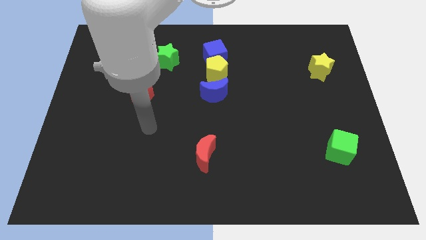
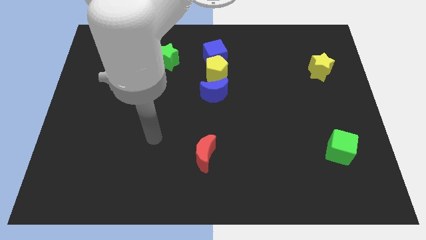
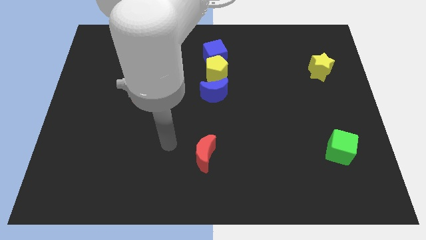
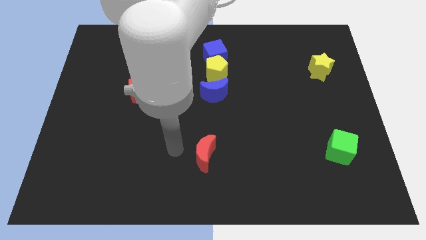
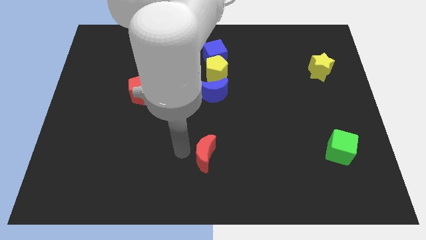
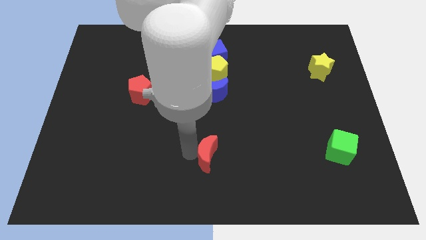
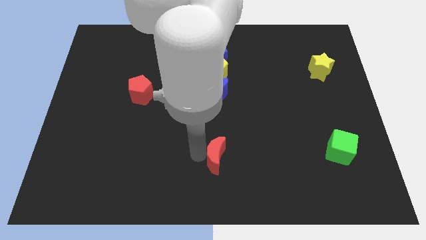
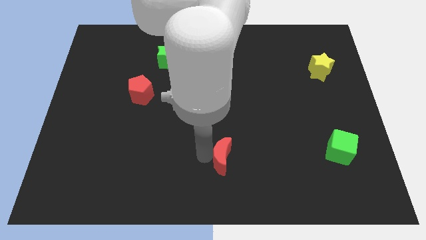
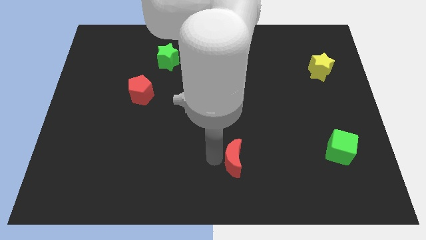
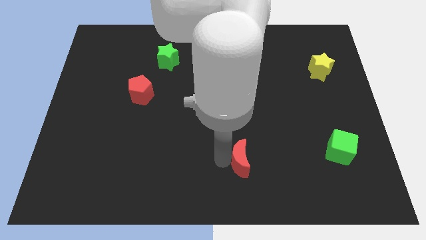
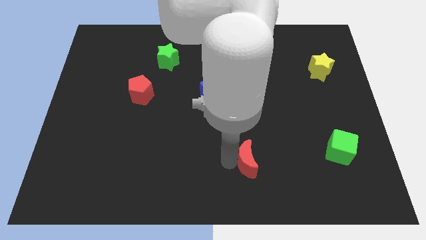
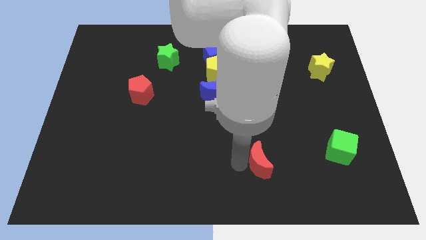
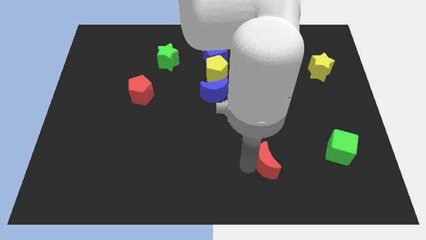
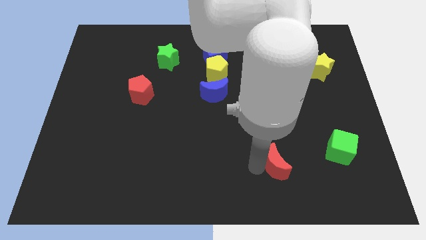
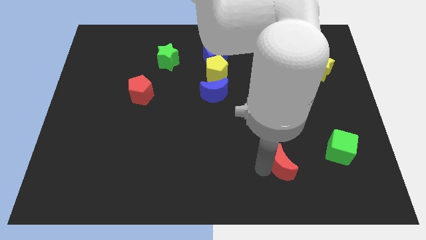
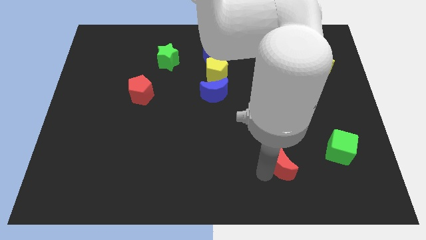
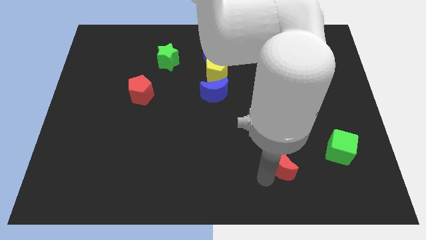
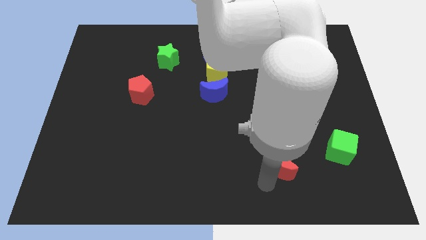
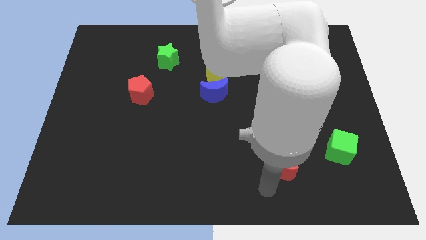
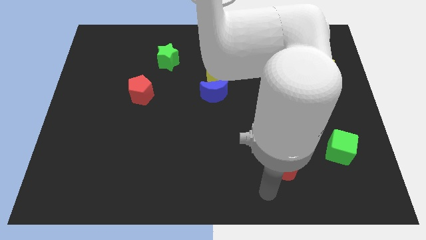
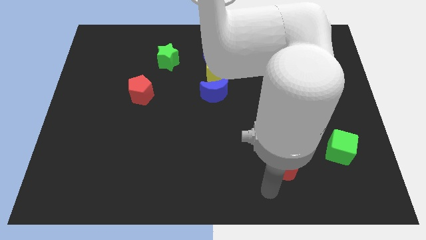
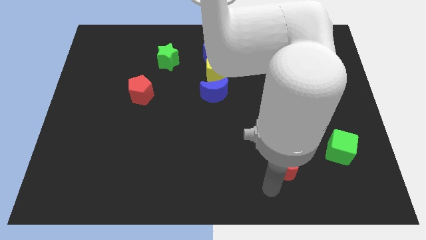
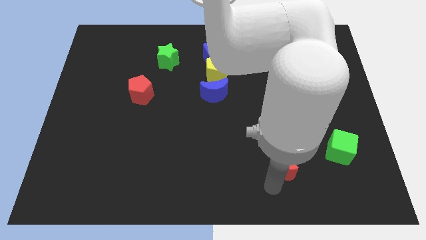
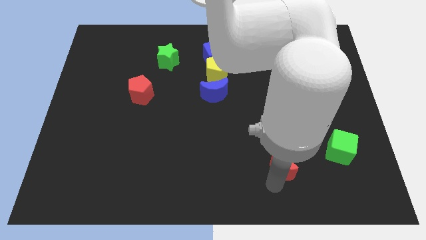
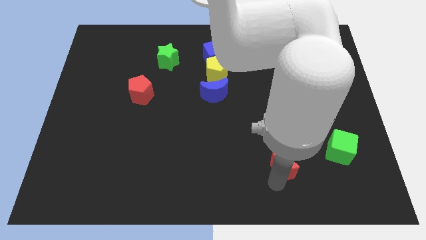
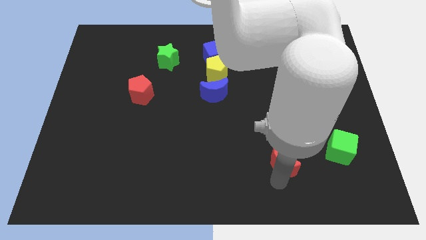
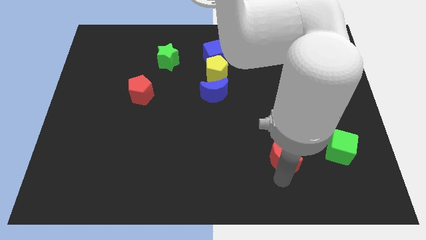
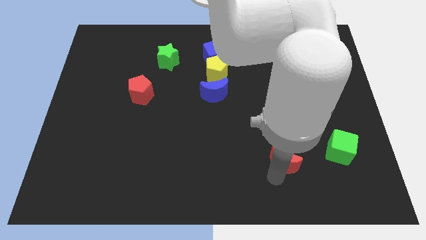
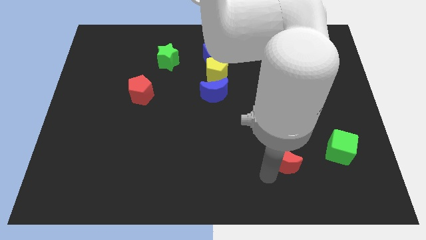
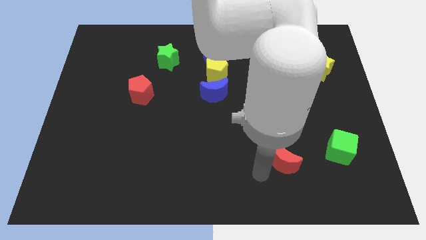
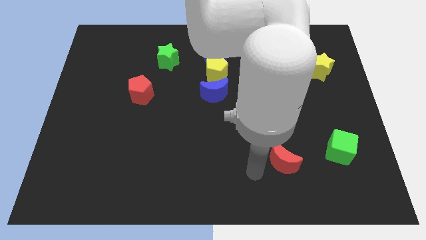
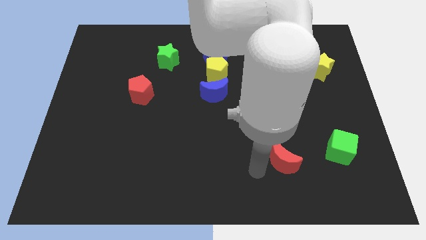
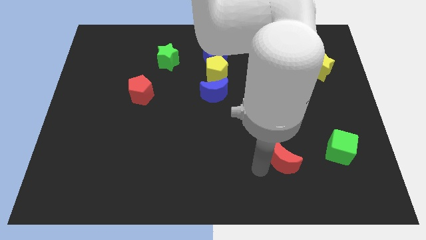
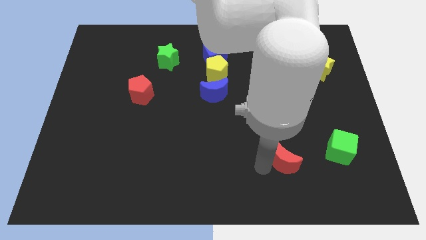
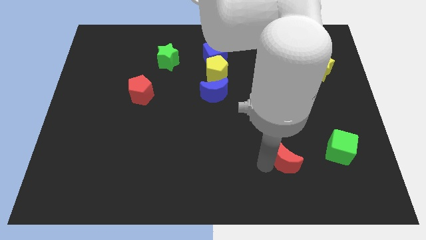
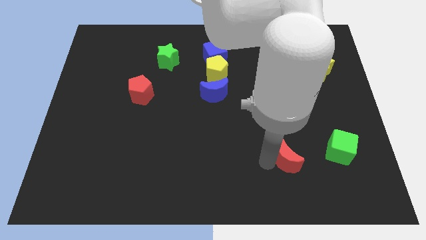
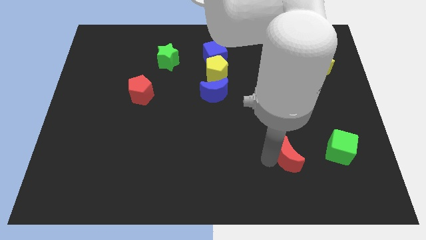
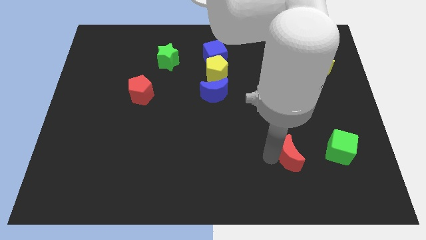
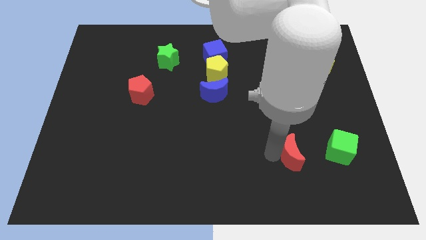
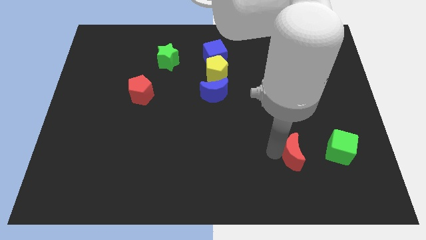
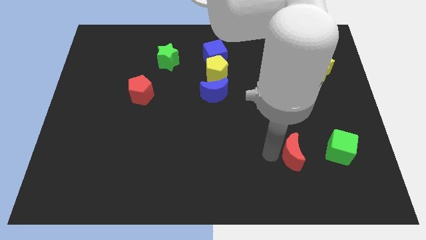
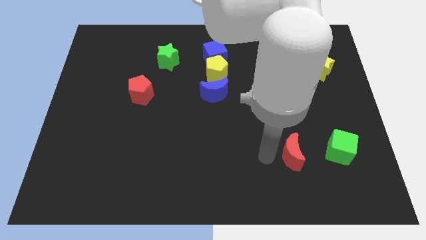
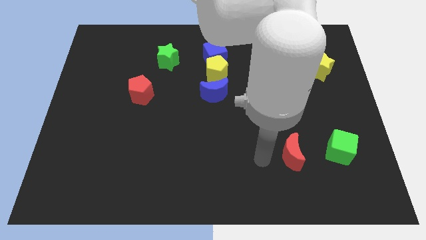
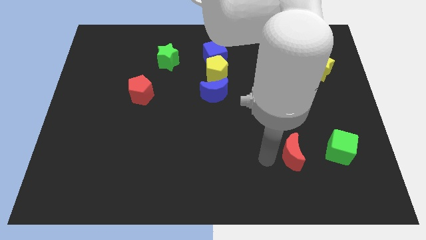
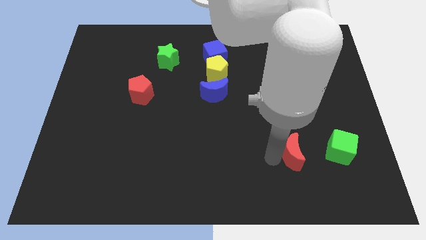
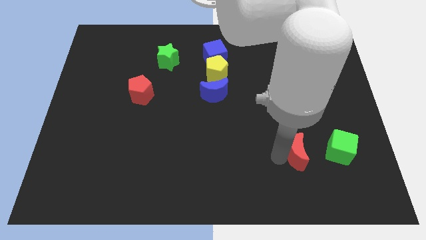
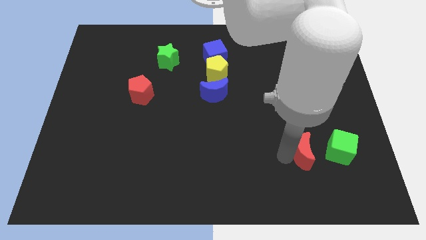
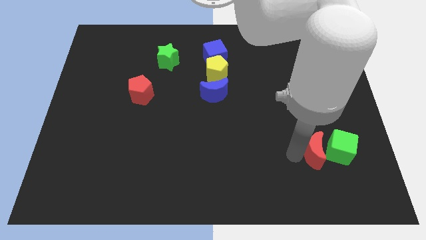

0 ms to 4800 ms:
slide the red moon to the green cube

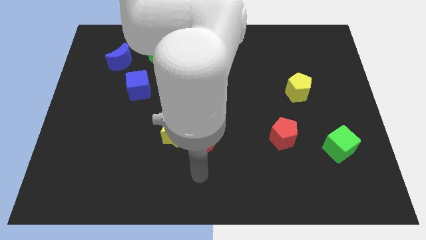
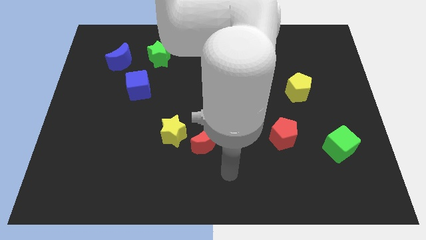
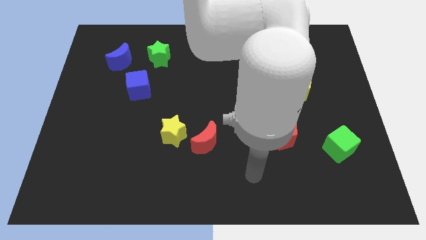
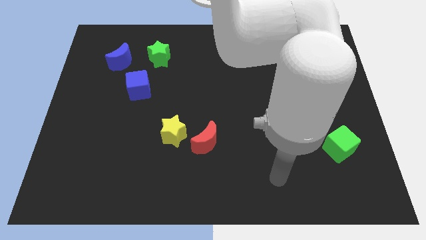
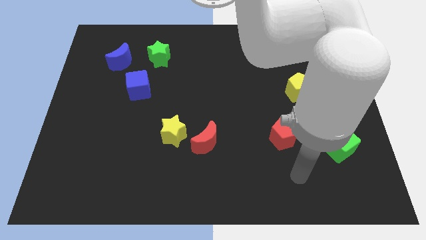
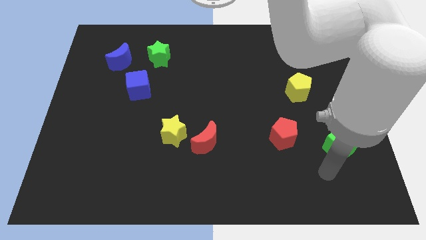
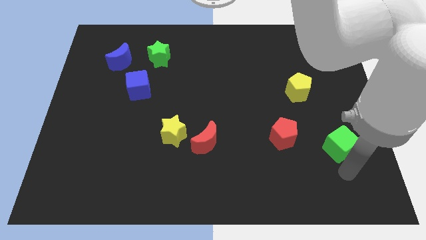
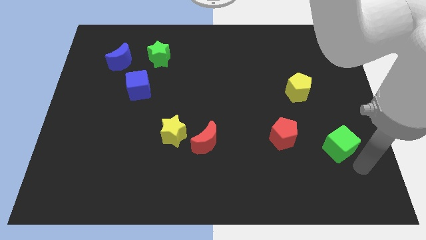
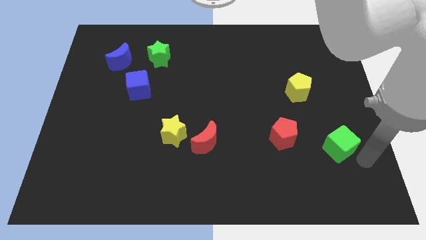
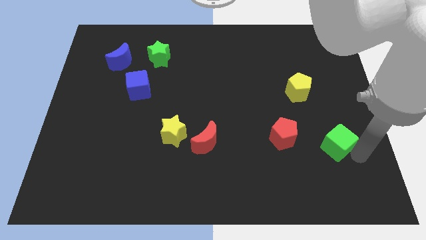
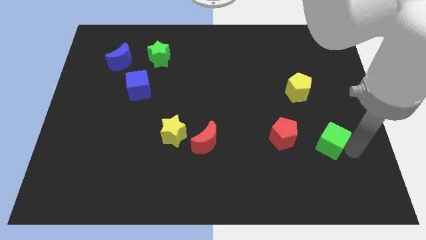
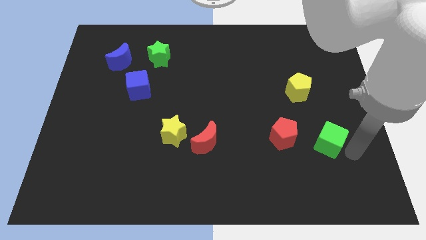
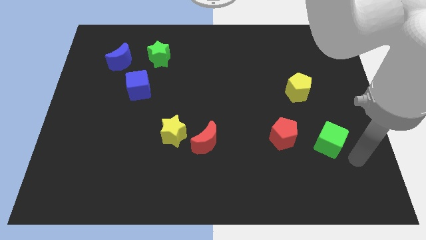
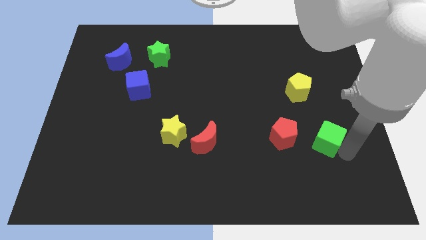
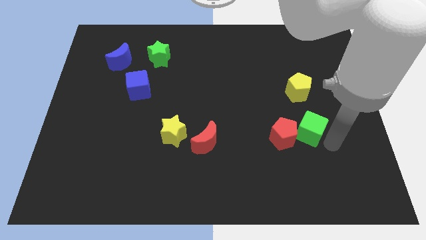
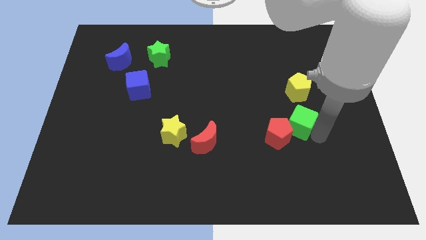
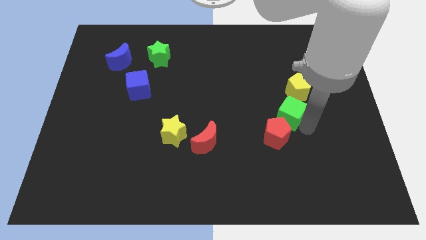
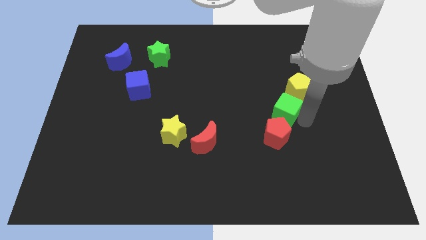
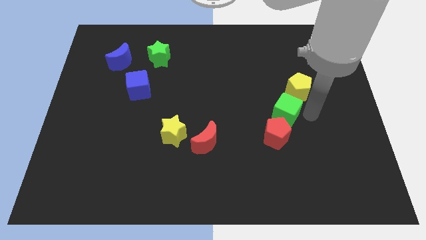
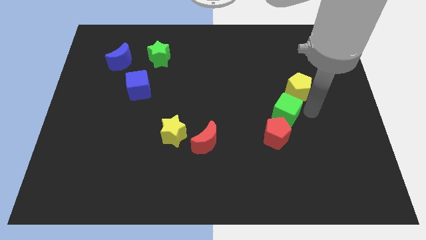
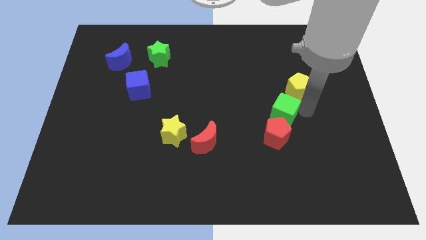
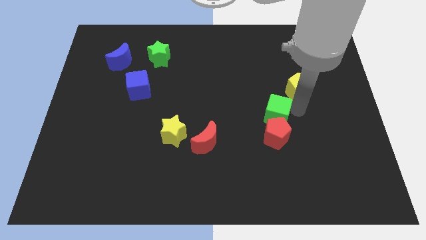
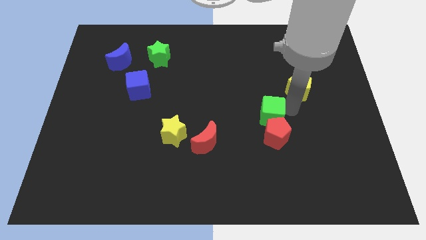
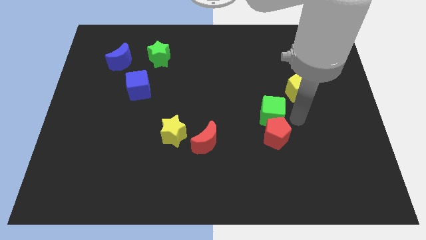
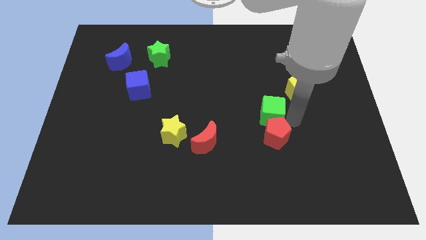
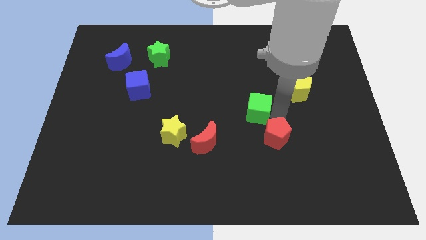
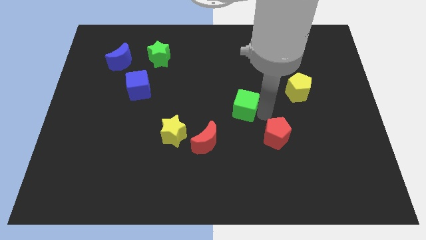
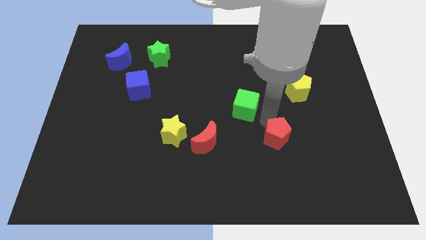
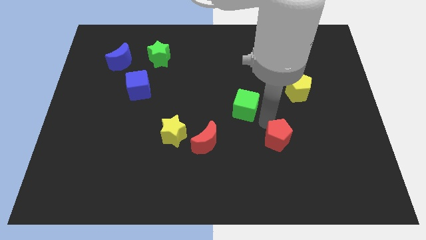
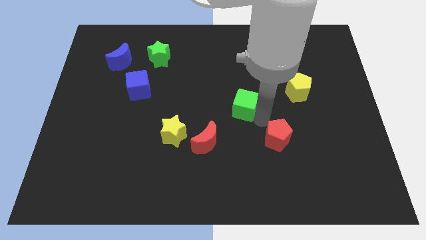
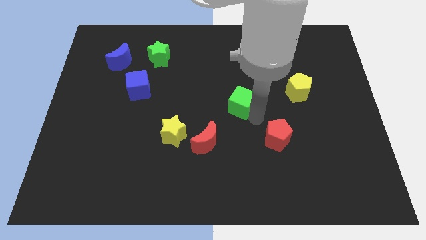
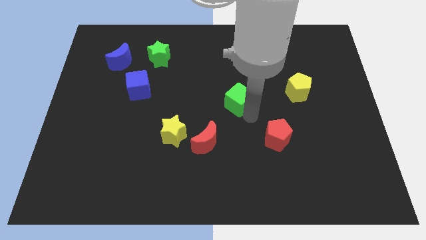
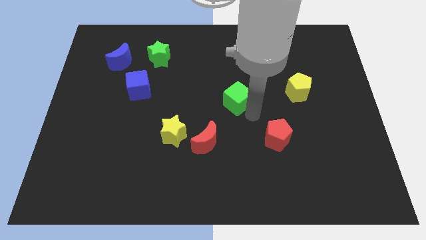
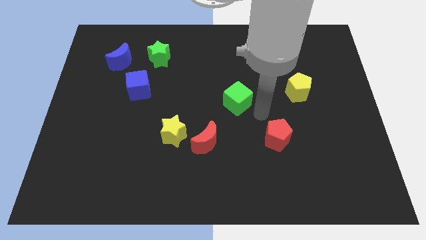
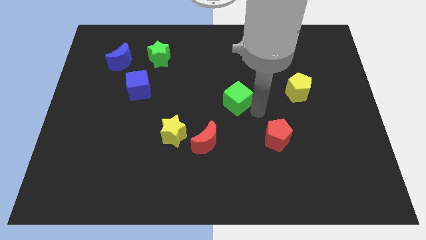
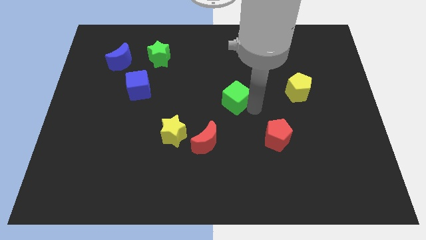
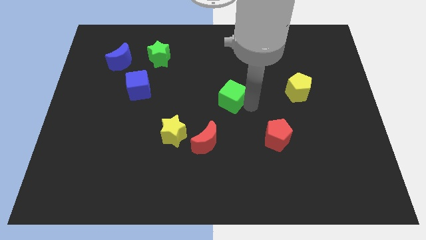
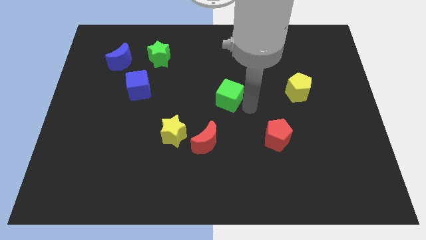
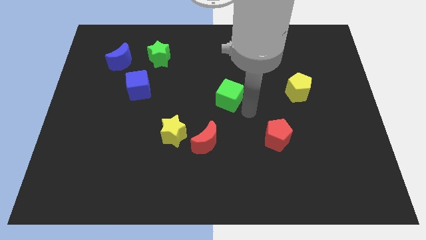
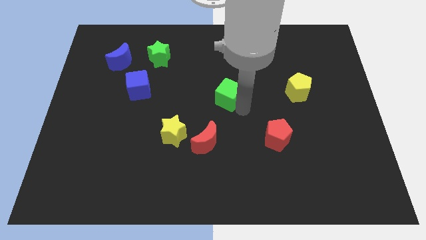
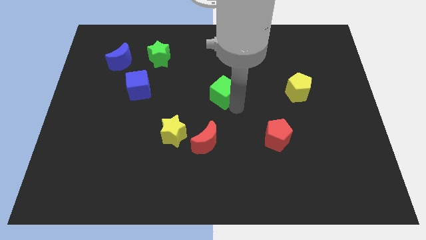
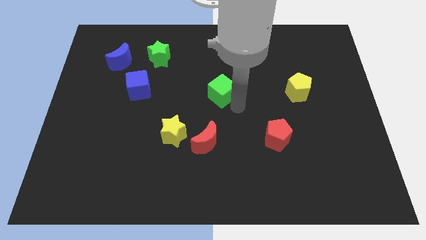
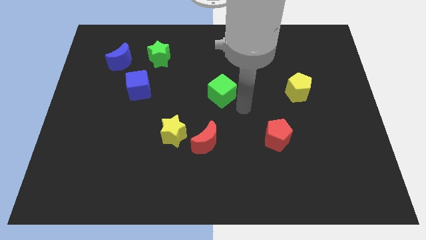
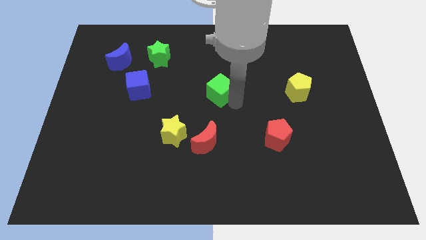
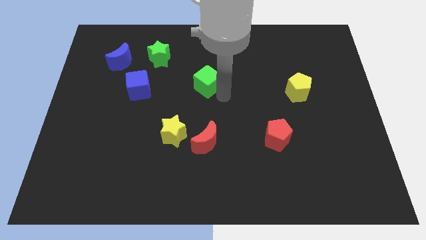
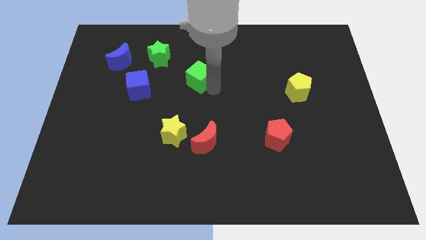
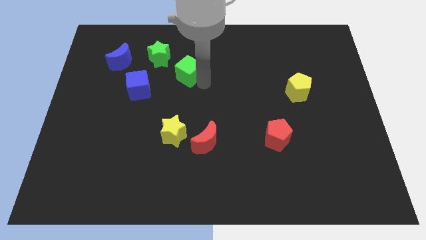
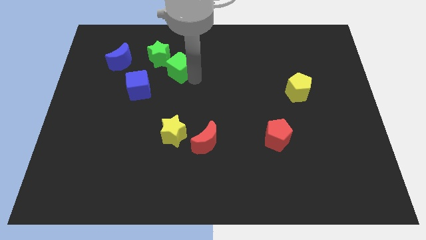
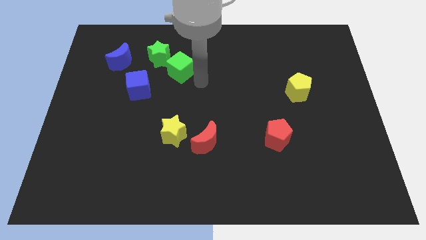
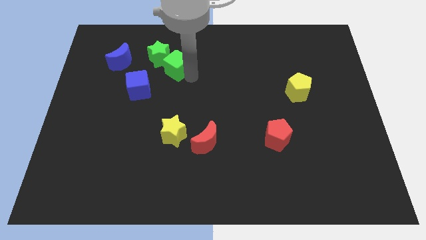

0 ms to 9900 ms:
put the green cube to the green star
